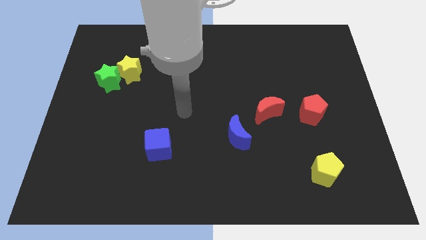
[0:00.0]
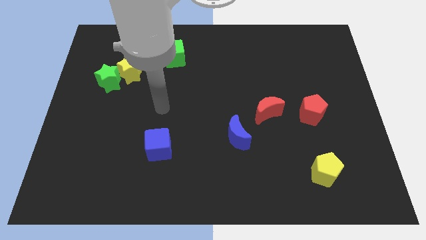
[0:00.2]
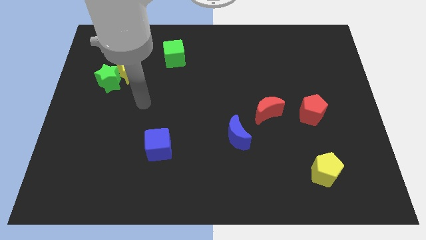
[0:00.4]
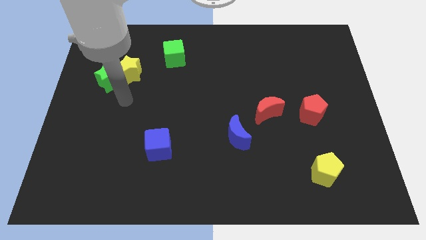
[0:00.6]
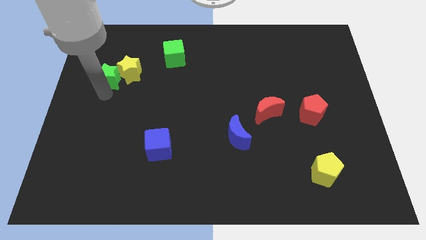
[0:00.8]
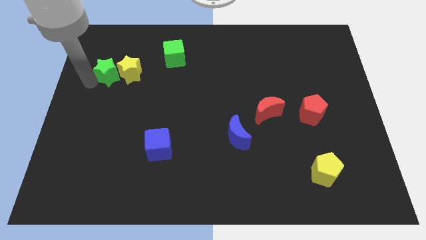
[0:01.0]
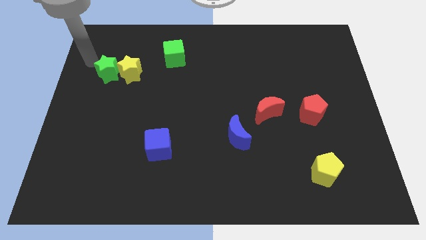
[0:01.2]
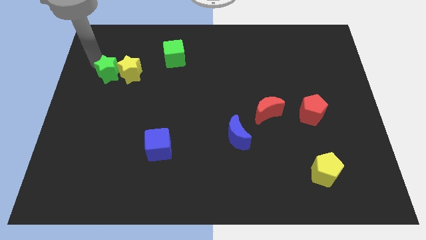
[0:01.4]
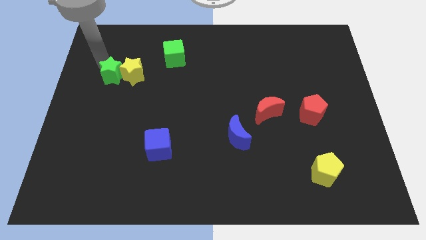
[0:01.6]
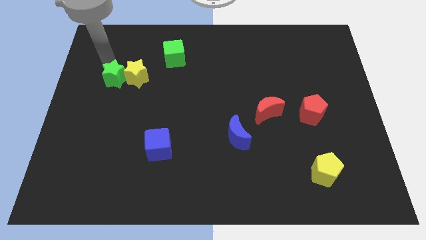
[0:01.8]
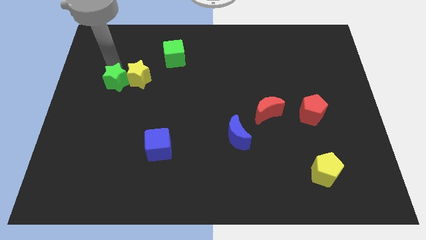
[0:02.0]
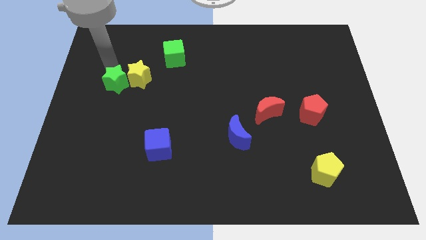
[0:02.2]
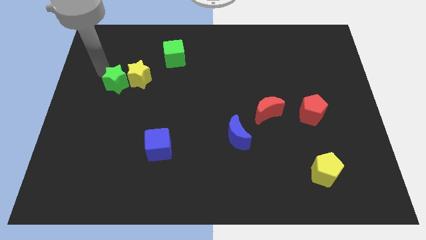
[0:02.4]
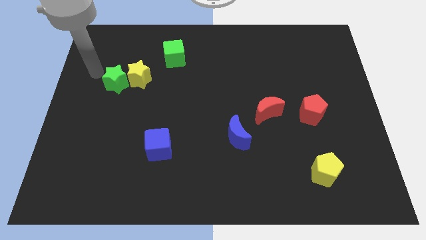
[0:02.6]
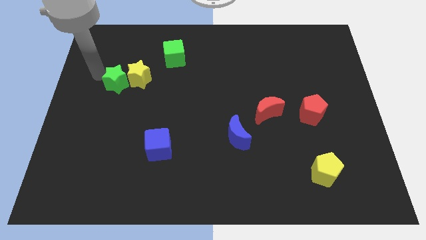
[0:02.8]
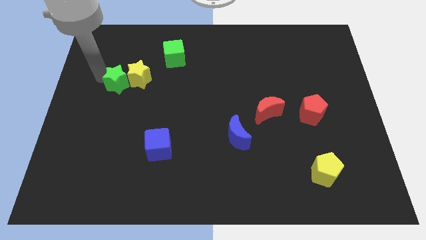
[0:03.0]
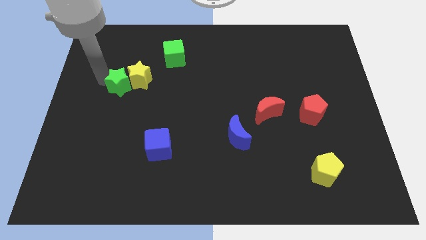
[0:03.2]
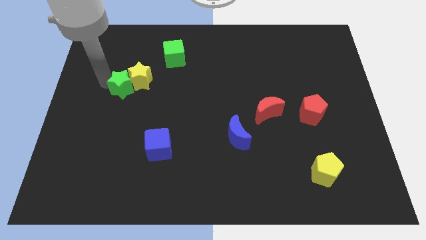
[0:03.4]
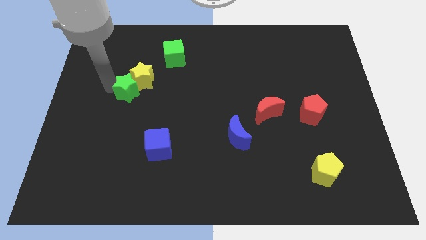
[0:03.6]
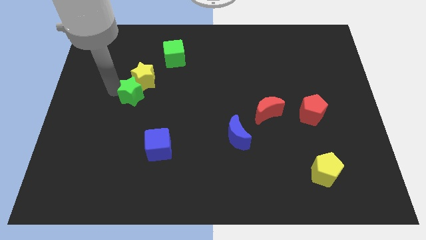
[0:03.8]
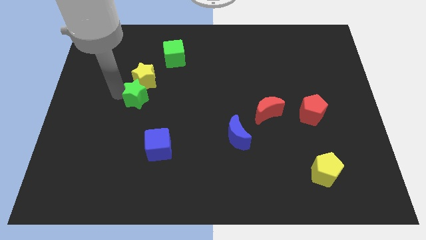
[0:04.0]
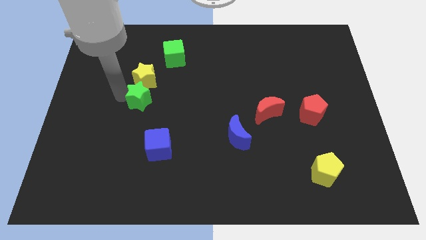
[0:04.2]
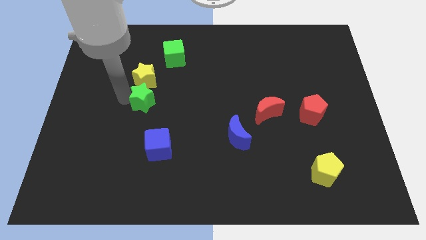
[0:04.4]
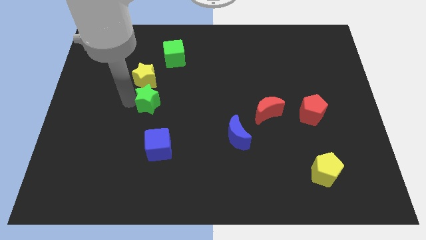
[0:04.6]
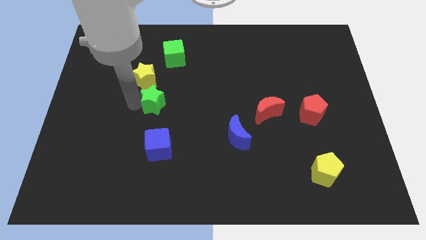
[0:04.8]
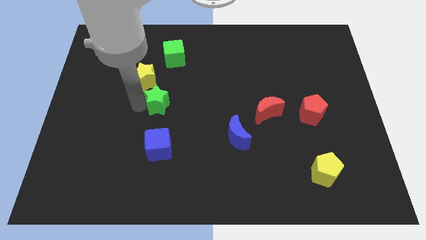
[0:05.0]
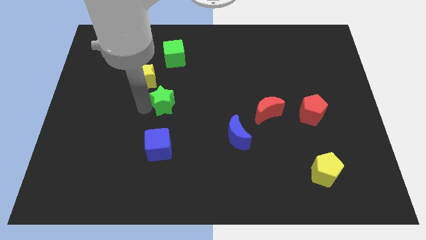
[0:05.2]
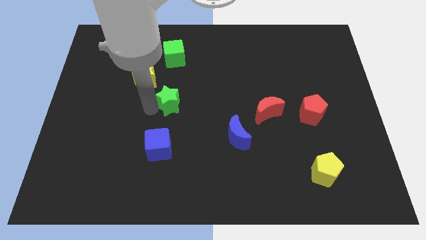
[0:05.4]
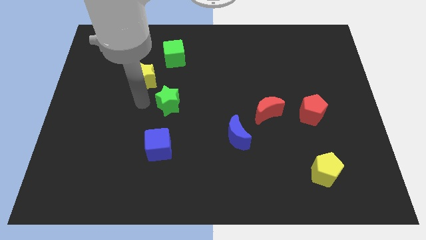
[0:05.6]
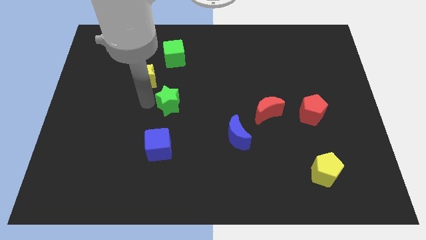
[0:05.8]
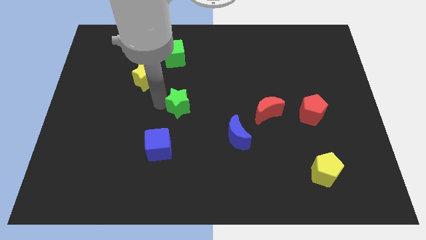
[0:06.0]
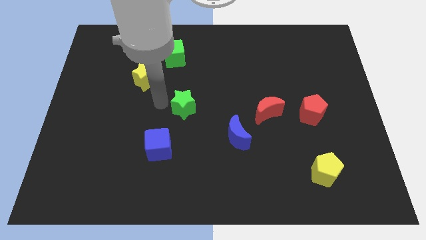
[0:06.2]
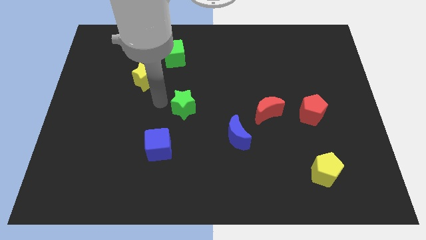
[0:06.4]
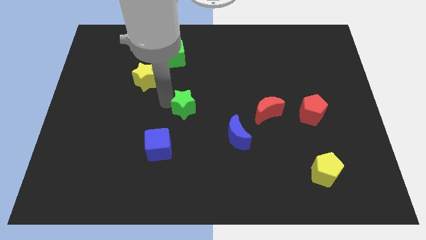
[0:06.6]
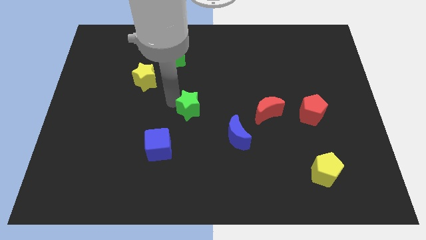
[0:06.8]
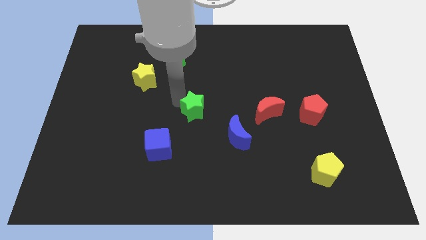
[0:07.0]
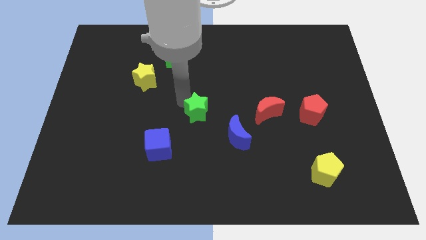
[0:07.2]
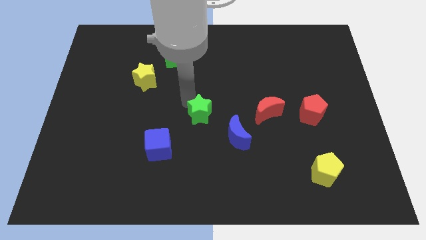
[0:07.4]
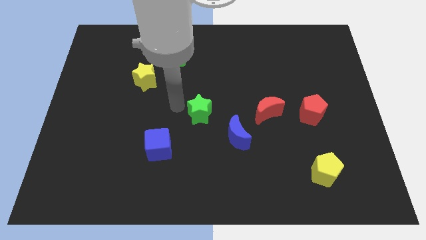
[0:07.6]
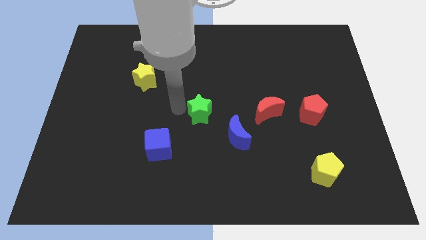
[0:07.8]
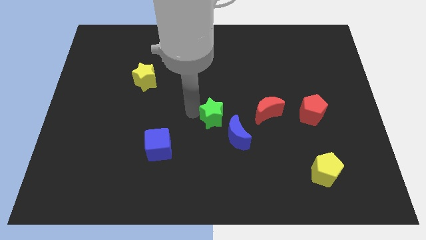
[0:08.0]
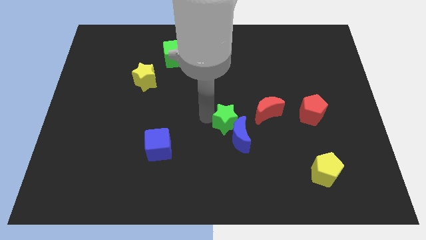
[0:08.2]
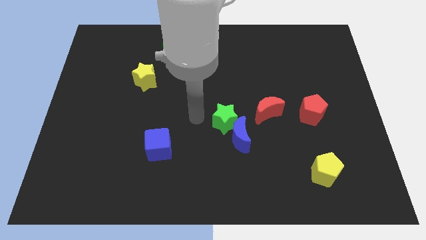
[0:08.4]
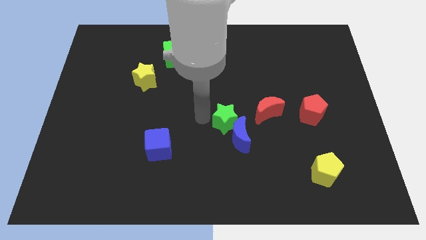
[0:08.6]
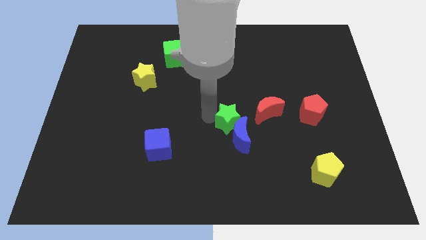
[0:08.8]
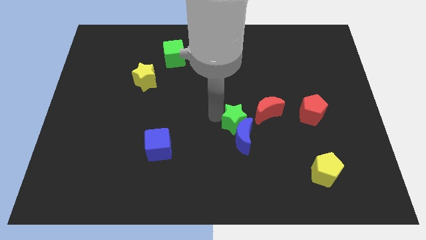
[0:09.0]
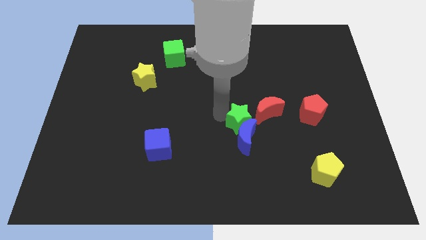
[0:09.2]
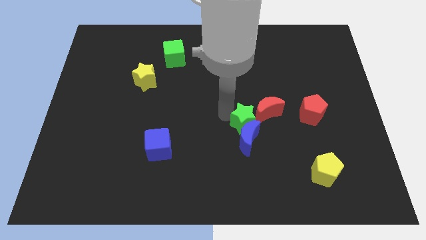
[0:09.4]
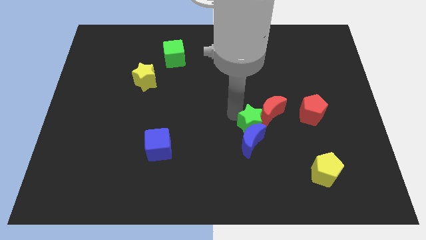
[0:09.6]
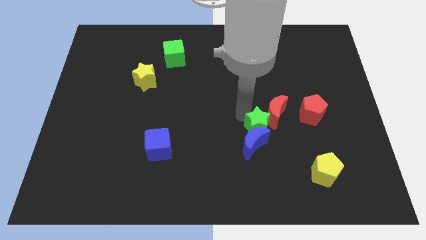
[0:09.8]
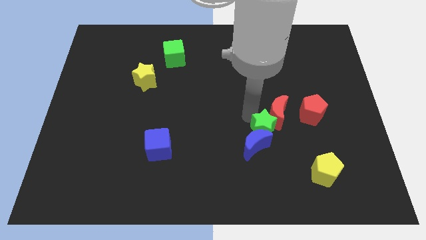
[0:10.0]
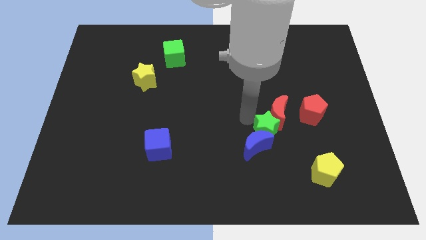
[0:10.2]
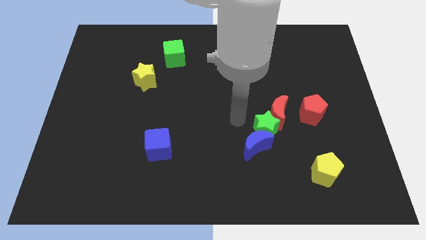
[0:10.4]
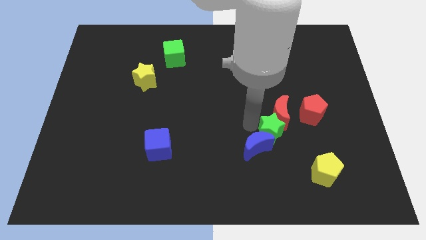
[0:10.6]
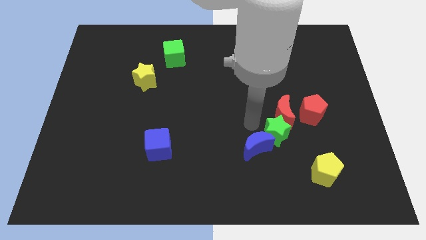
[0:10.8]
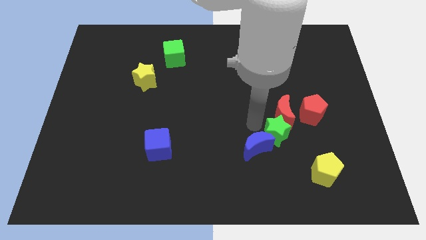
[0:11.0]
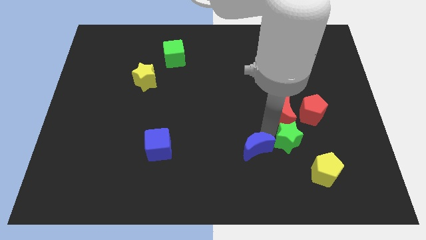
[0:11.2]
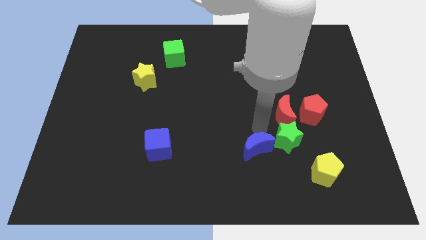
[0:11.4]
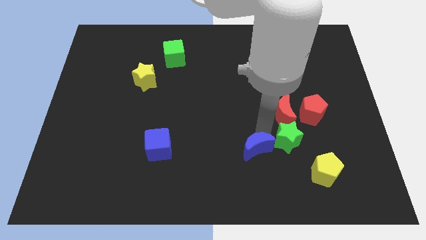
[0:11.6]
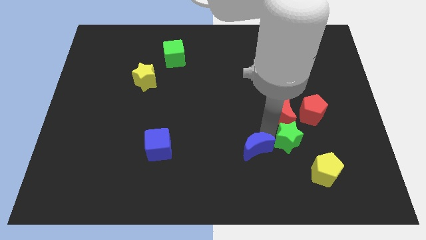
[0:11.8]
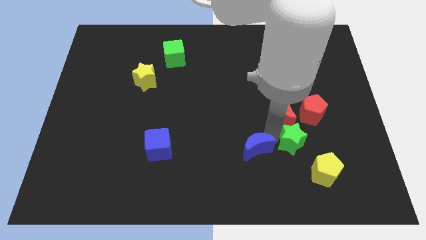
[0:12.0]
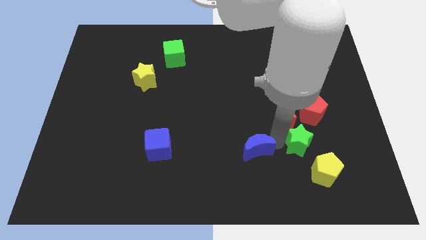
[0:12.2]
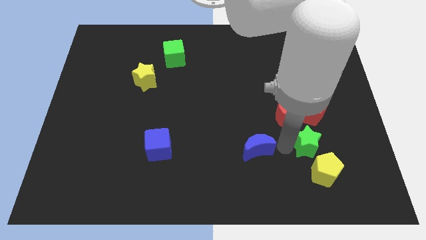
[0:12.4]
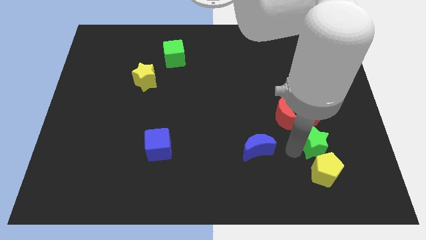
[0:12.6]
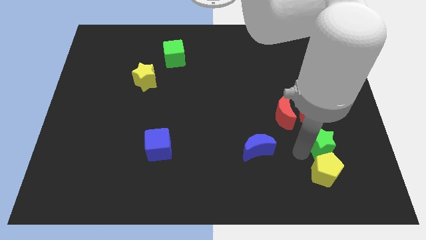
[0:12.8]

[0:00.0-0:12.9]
move the green star to the top right side of the yellow pentagon
